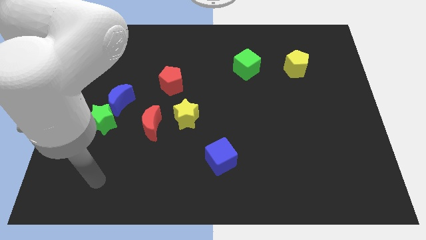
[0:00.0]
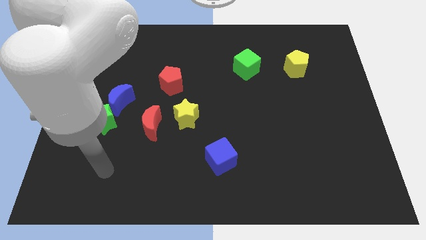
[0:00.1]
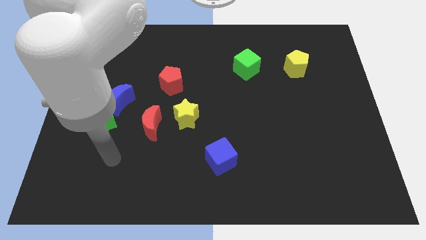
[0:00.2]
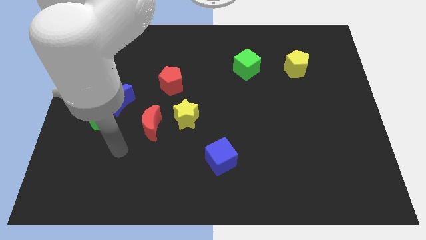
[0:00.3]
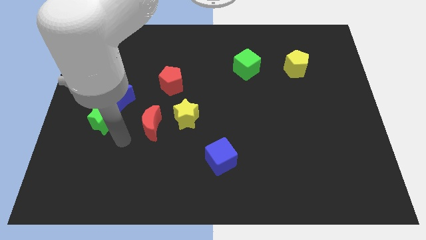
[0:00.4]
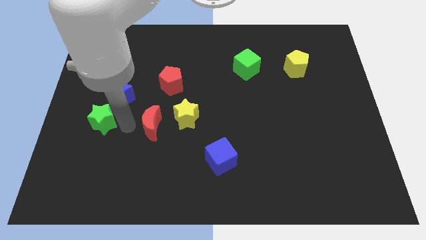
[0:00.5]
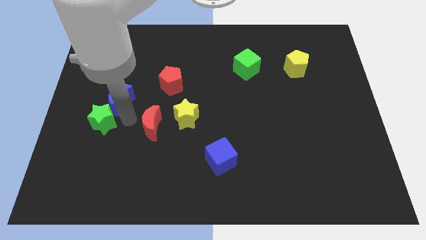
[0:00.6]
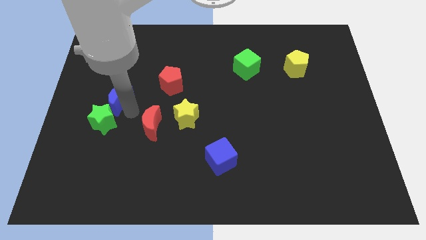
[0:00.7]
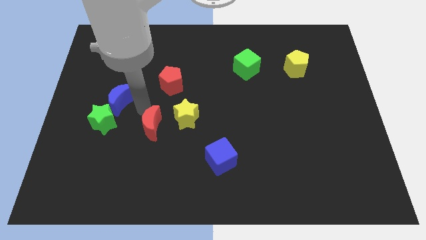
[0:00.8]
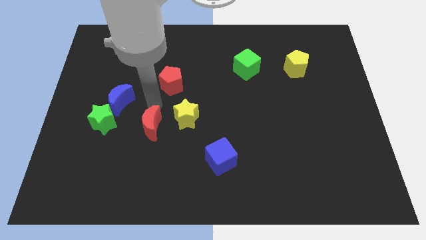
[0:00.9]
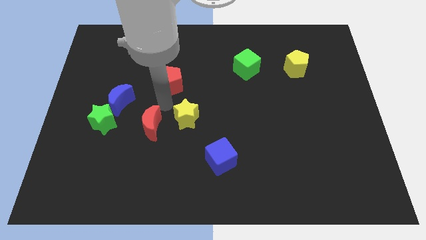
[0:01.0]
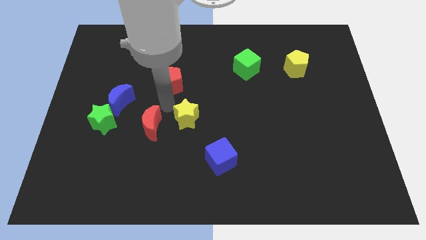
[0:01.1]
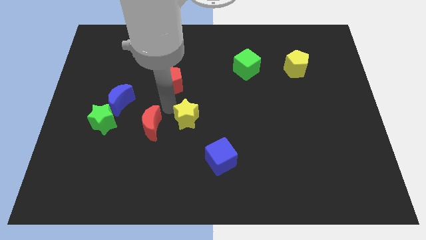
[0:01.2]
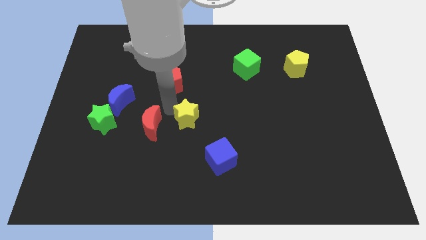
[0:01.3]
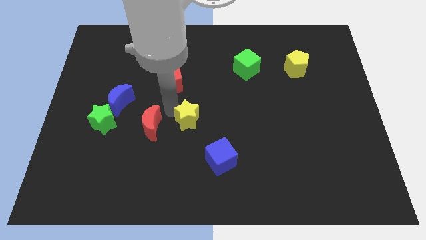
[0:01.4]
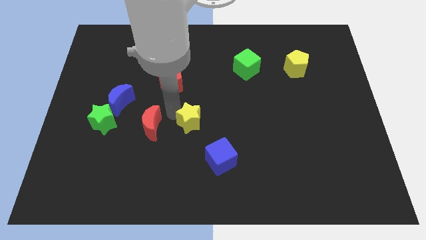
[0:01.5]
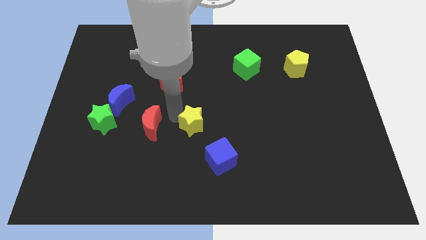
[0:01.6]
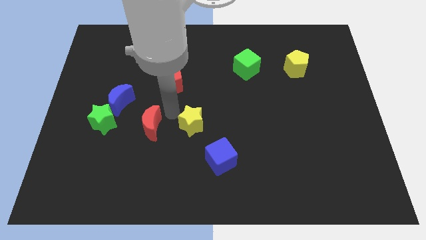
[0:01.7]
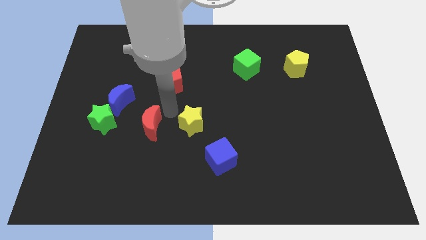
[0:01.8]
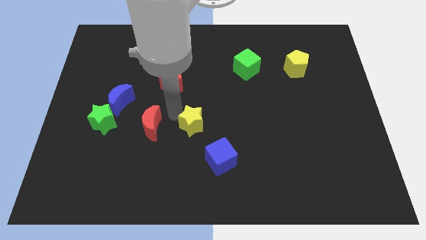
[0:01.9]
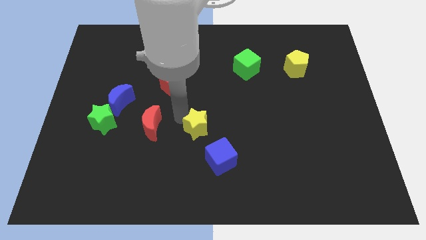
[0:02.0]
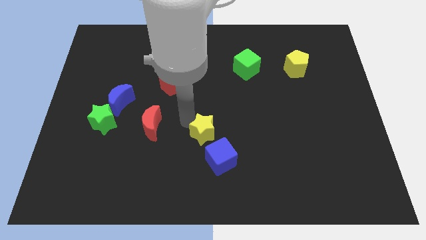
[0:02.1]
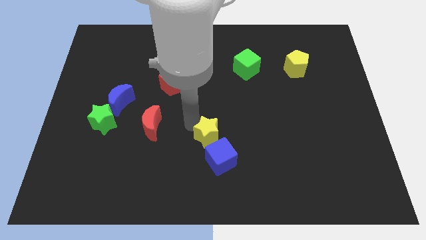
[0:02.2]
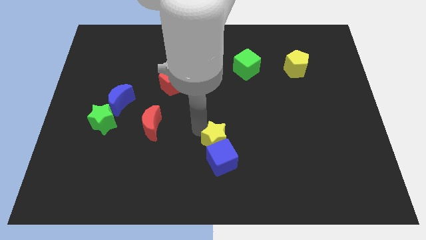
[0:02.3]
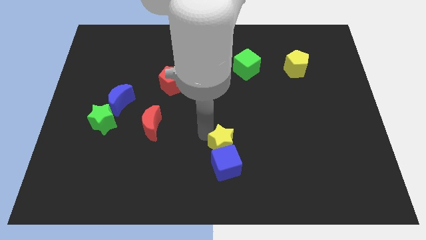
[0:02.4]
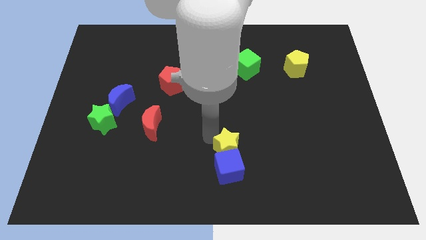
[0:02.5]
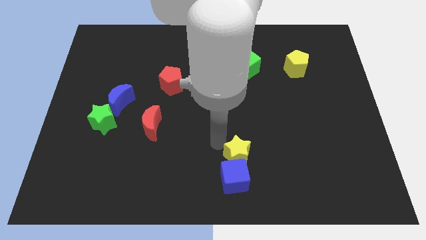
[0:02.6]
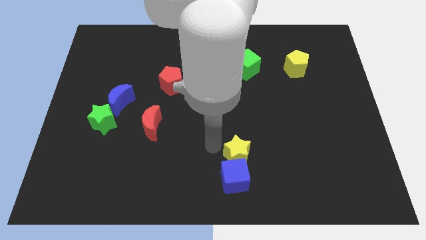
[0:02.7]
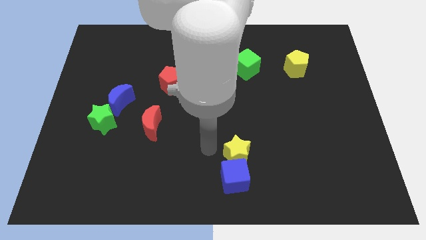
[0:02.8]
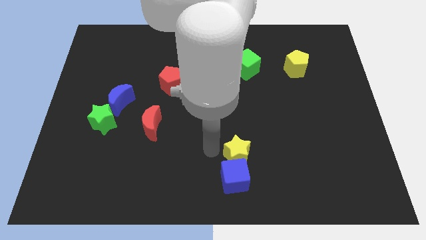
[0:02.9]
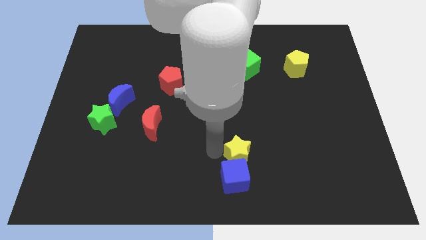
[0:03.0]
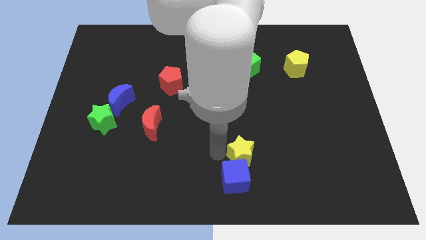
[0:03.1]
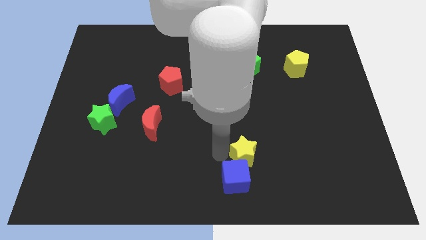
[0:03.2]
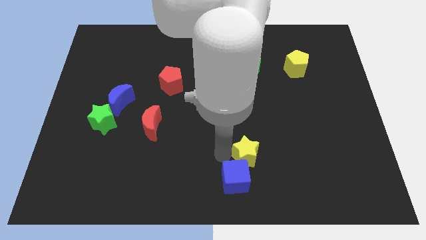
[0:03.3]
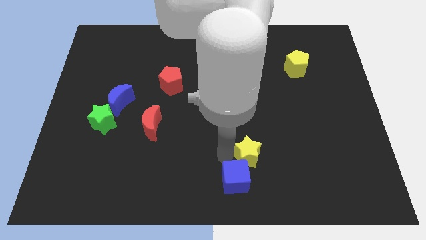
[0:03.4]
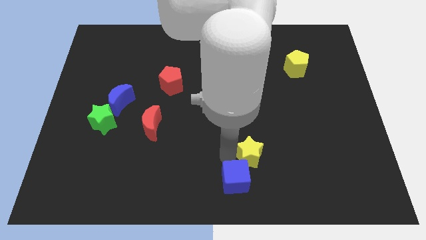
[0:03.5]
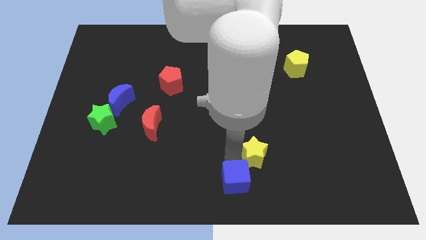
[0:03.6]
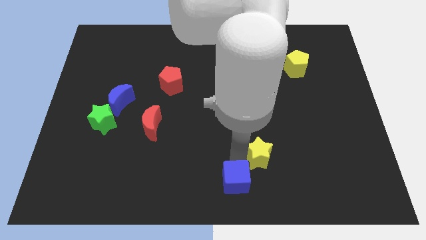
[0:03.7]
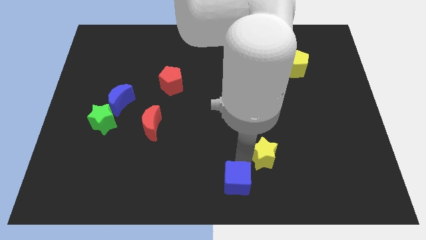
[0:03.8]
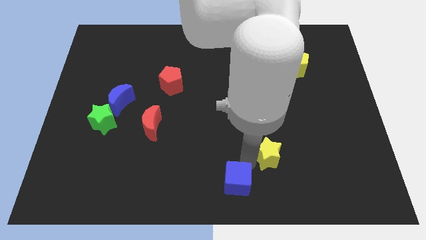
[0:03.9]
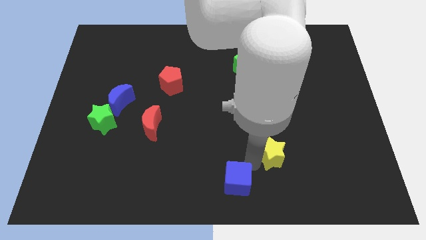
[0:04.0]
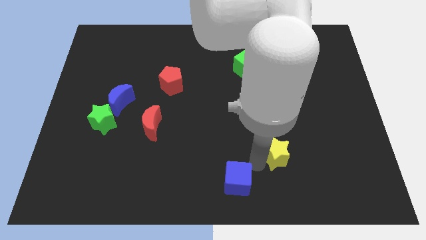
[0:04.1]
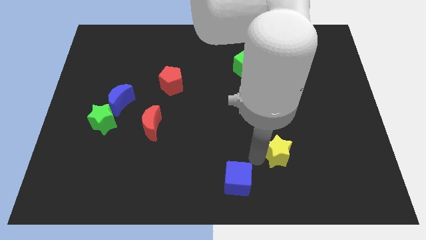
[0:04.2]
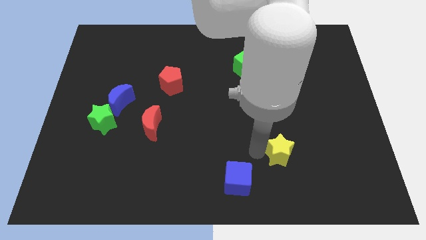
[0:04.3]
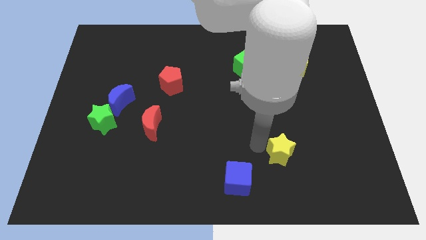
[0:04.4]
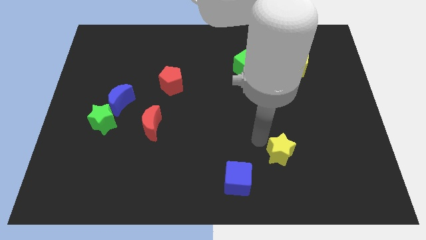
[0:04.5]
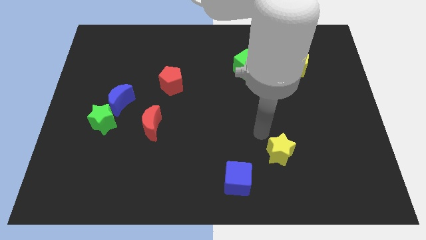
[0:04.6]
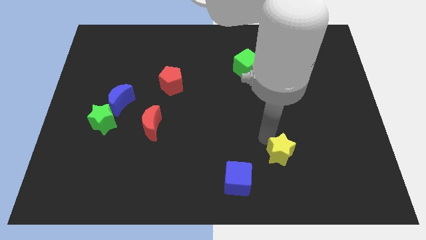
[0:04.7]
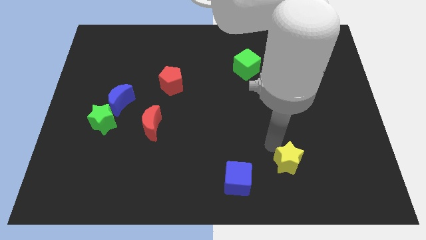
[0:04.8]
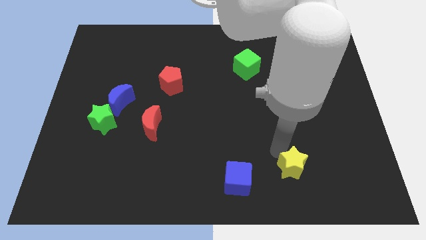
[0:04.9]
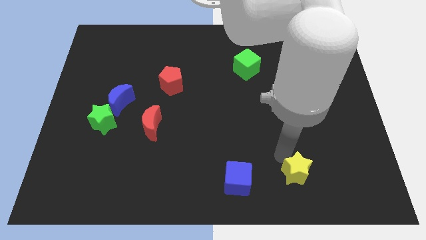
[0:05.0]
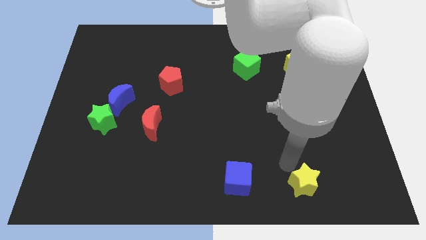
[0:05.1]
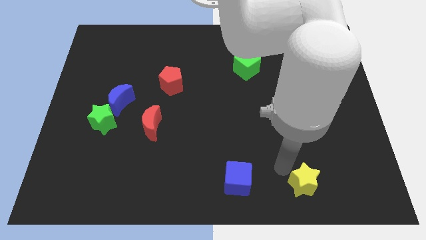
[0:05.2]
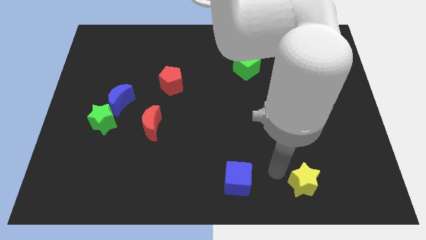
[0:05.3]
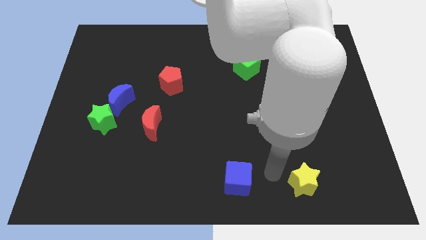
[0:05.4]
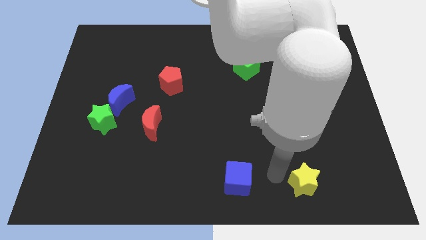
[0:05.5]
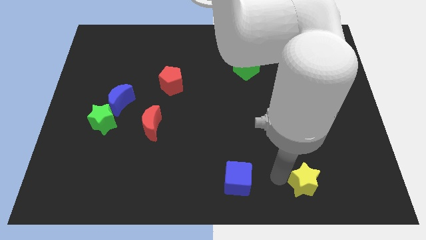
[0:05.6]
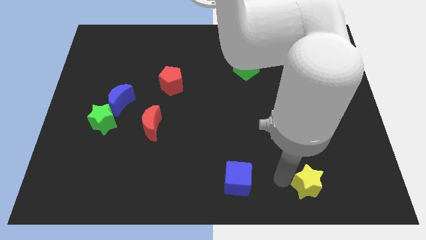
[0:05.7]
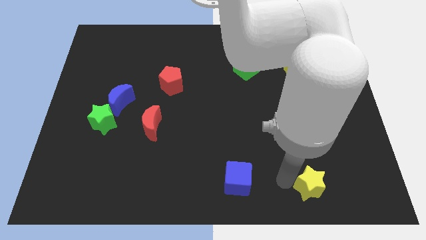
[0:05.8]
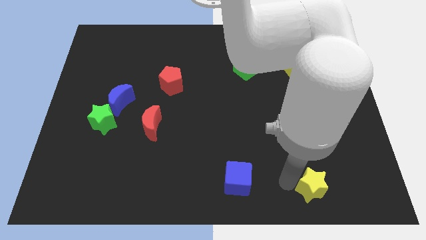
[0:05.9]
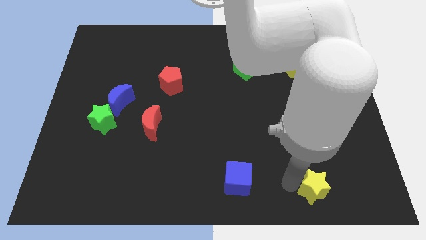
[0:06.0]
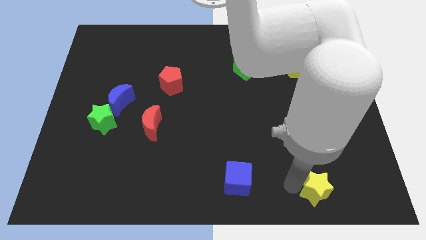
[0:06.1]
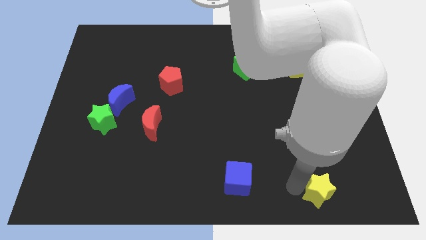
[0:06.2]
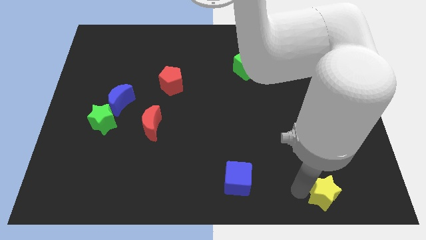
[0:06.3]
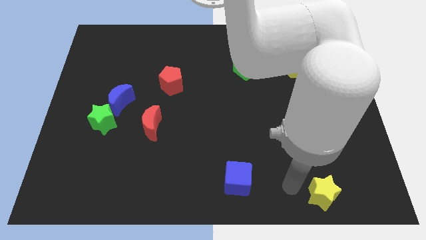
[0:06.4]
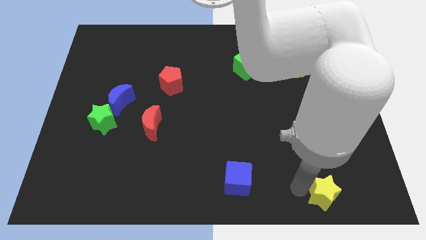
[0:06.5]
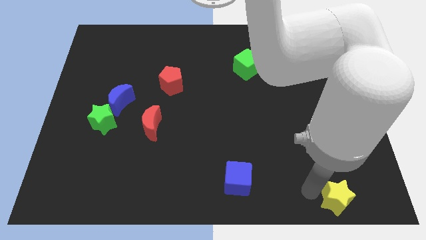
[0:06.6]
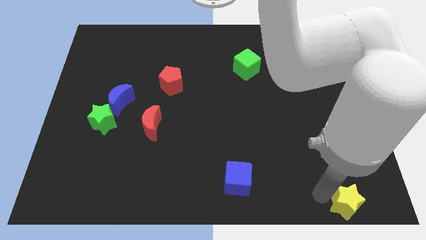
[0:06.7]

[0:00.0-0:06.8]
slide the yellow star to the bottom right
